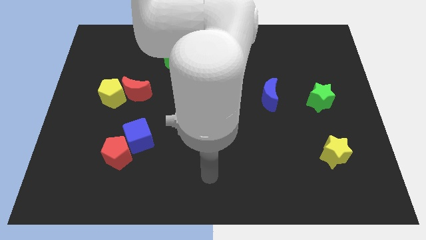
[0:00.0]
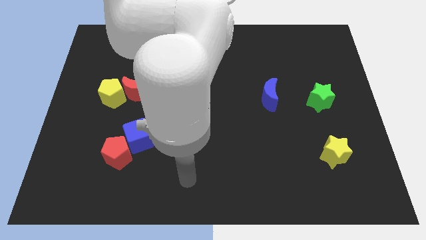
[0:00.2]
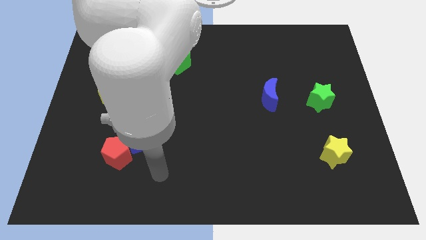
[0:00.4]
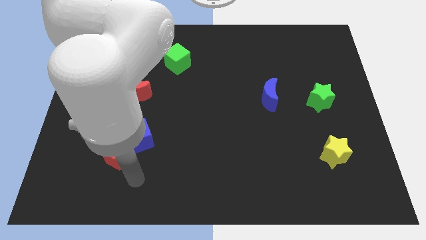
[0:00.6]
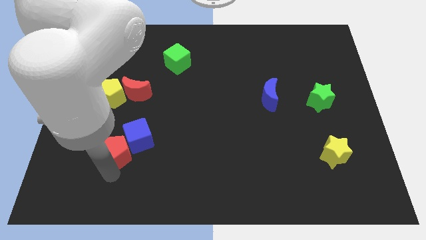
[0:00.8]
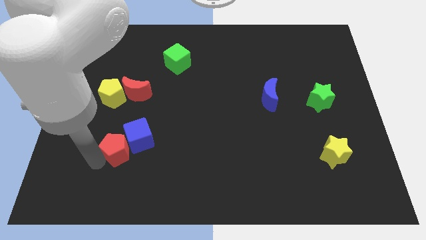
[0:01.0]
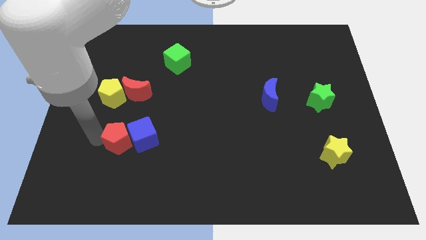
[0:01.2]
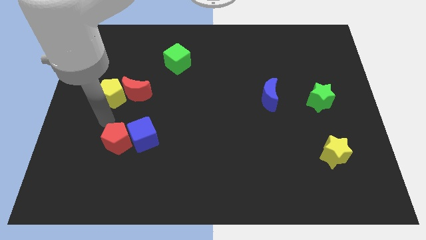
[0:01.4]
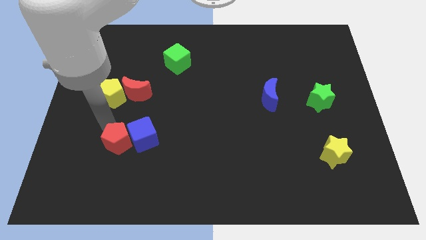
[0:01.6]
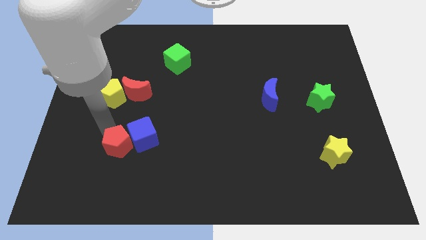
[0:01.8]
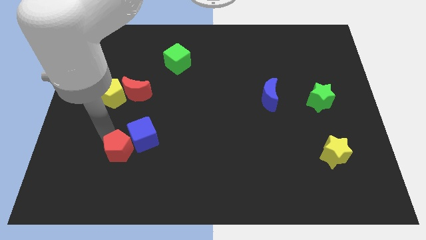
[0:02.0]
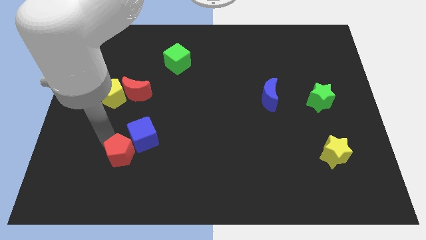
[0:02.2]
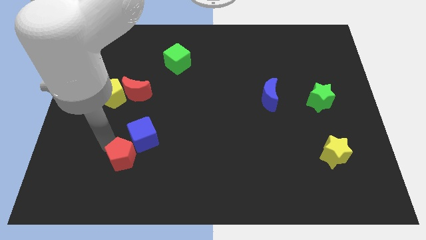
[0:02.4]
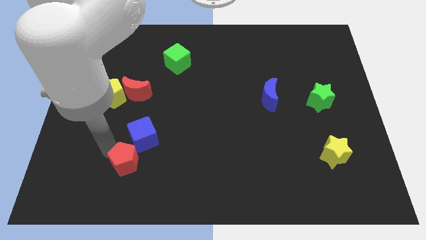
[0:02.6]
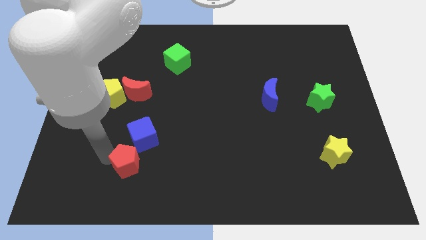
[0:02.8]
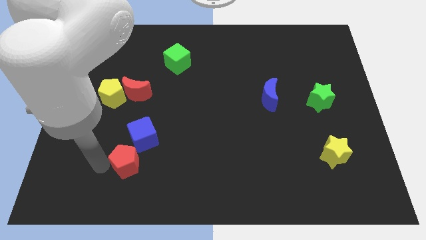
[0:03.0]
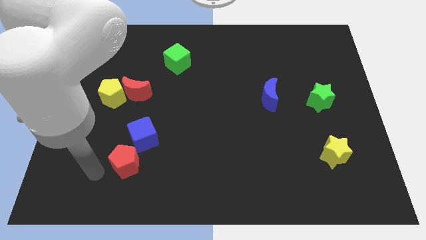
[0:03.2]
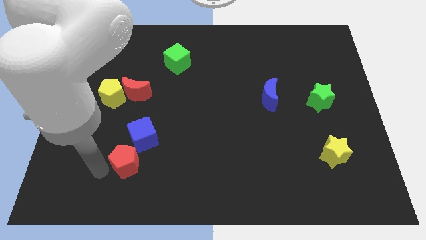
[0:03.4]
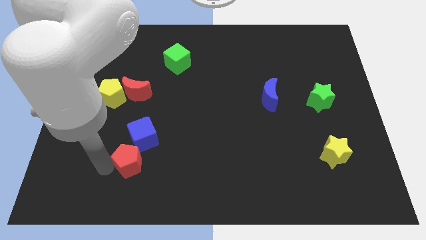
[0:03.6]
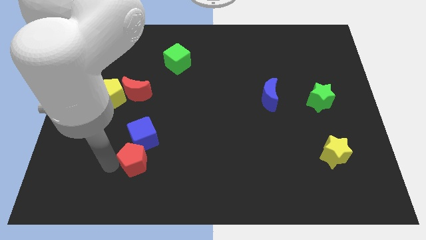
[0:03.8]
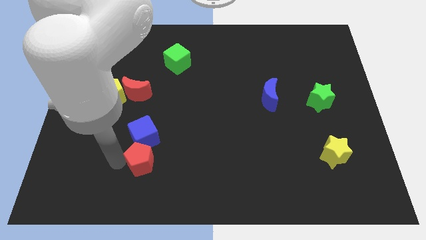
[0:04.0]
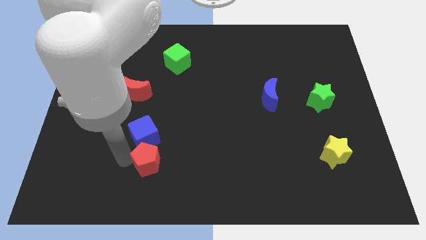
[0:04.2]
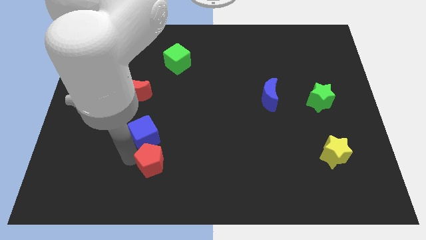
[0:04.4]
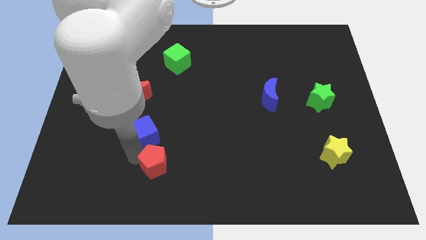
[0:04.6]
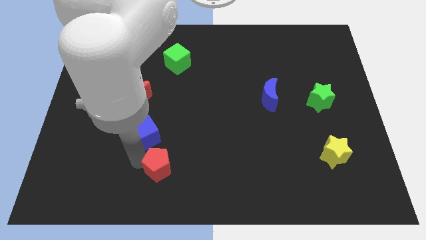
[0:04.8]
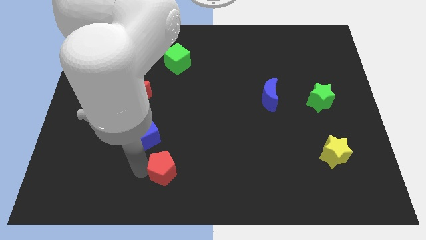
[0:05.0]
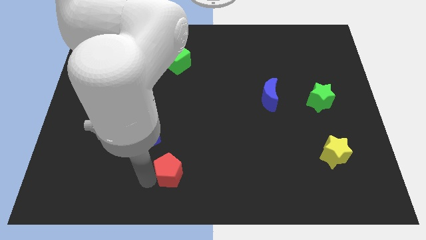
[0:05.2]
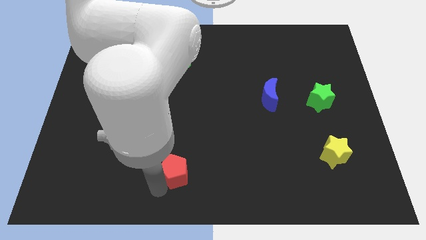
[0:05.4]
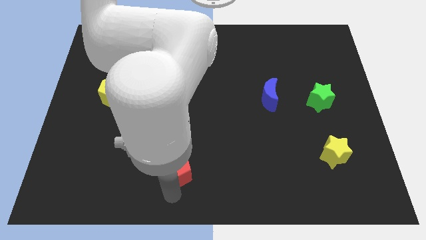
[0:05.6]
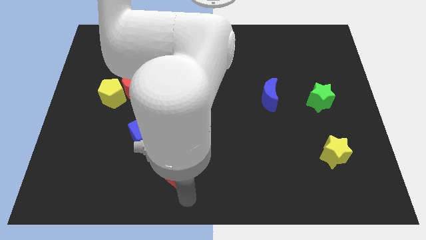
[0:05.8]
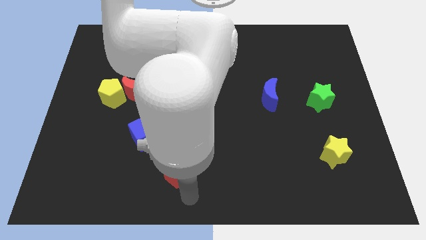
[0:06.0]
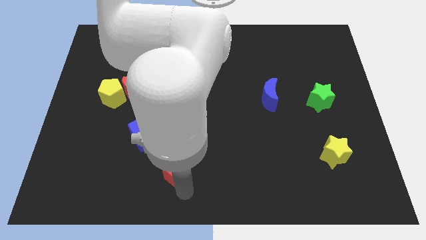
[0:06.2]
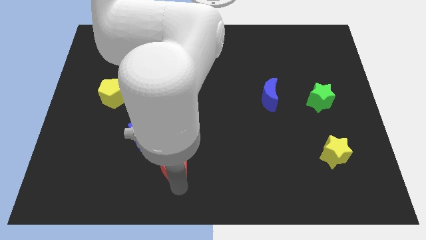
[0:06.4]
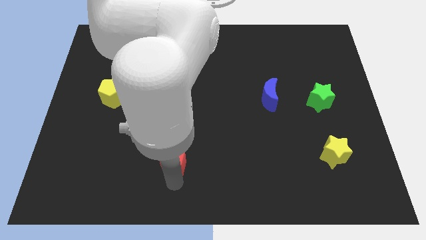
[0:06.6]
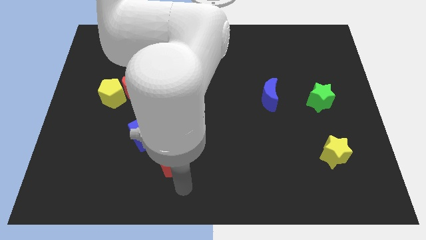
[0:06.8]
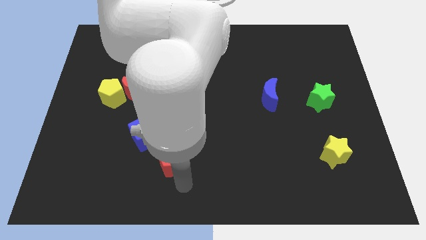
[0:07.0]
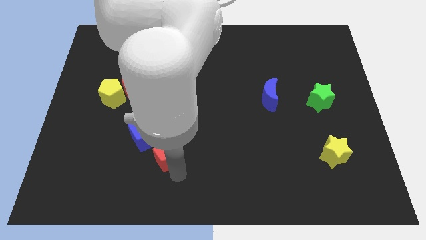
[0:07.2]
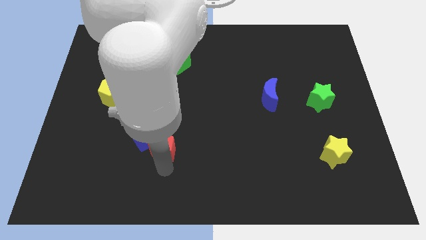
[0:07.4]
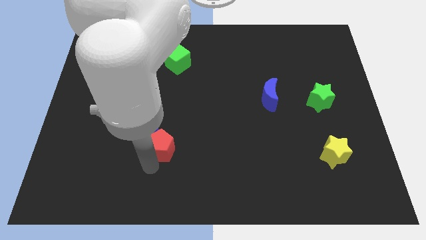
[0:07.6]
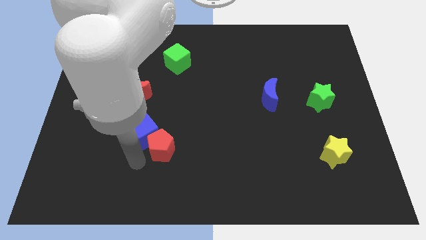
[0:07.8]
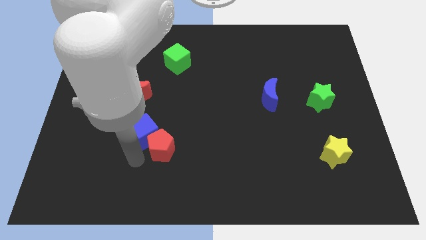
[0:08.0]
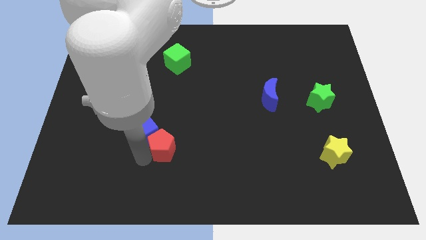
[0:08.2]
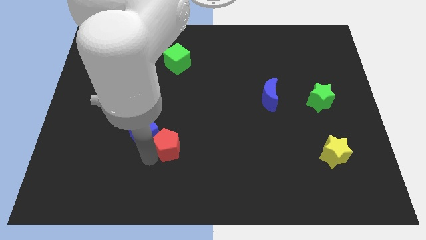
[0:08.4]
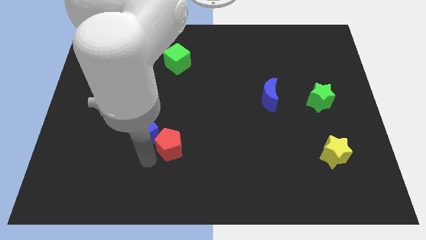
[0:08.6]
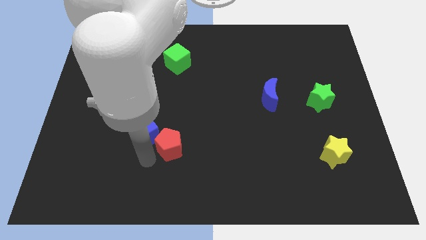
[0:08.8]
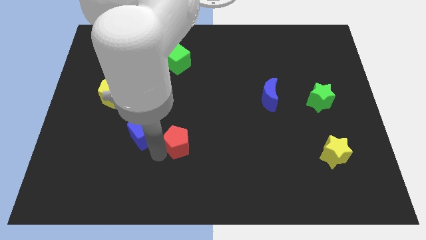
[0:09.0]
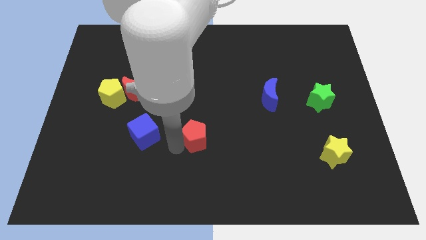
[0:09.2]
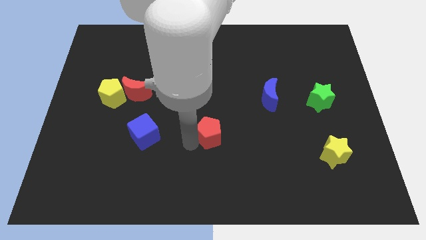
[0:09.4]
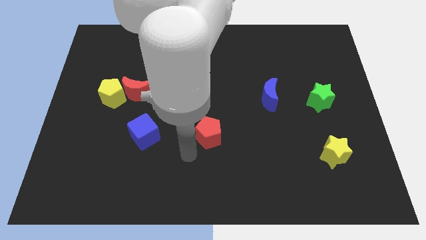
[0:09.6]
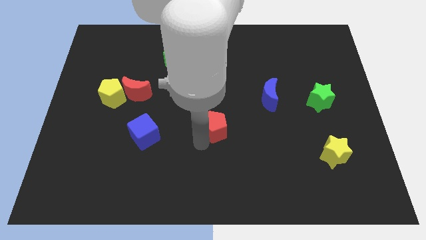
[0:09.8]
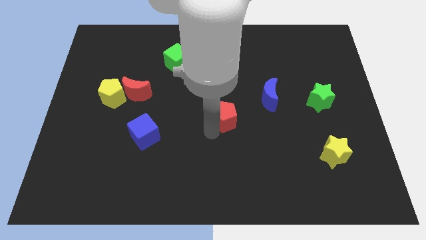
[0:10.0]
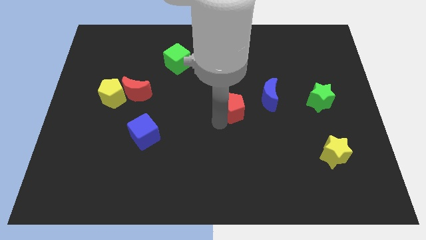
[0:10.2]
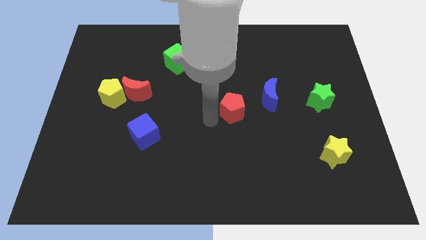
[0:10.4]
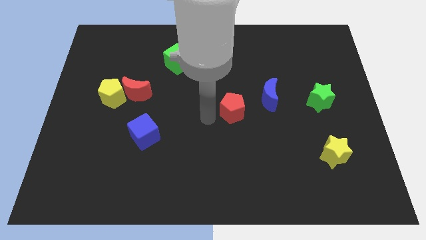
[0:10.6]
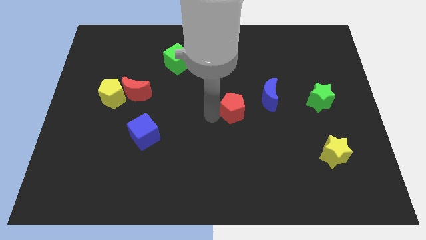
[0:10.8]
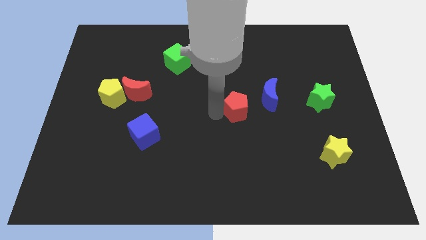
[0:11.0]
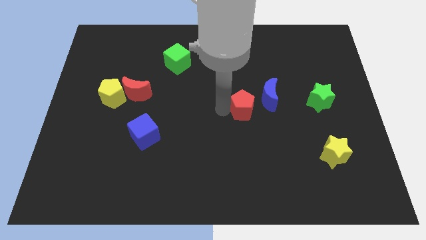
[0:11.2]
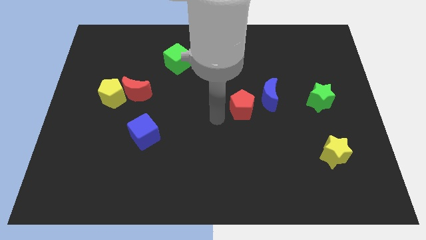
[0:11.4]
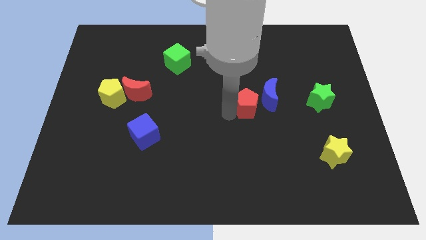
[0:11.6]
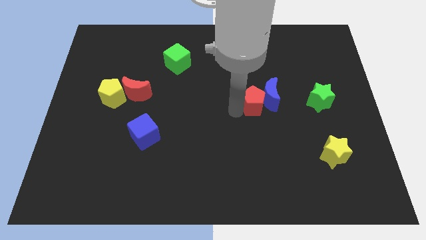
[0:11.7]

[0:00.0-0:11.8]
put the red pentagon towards the blue moon

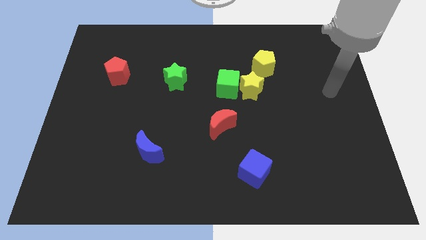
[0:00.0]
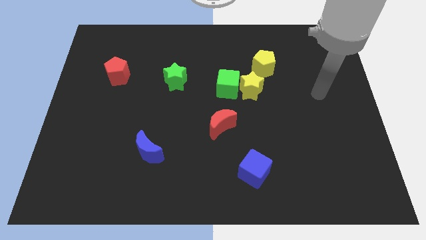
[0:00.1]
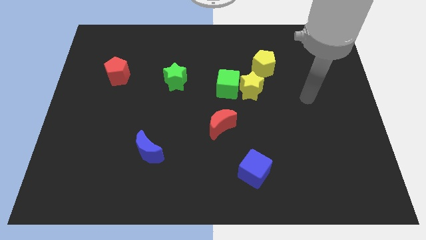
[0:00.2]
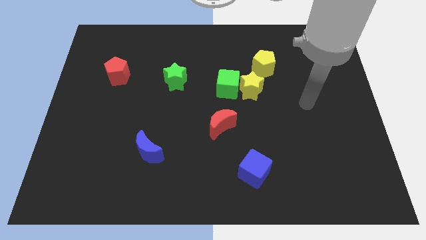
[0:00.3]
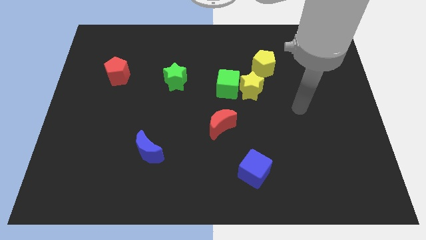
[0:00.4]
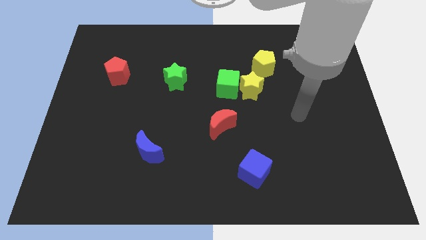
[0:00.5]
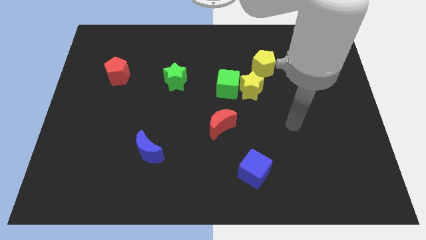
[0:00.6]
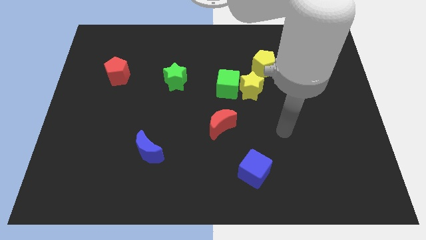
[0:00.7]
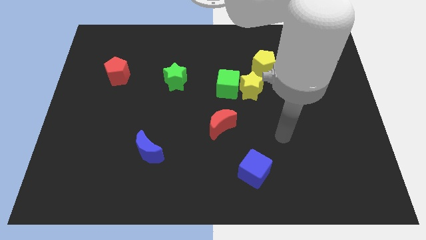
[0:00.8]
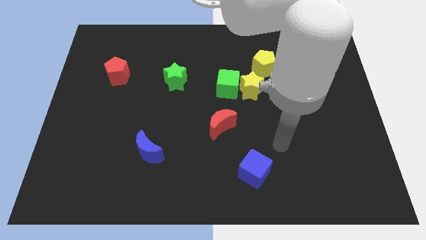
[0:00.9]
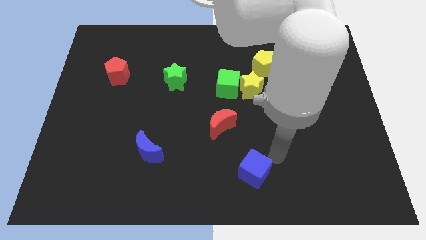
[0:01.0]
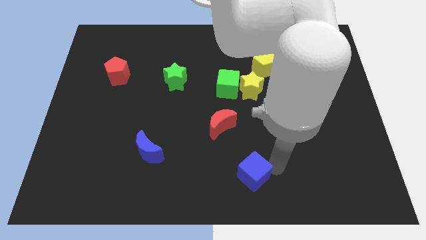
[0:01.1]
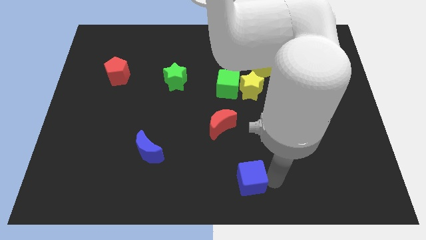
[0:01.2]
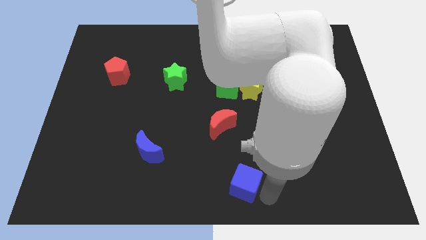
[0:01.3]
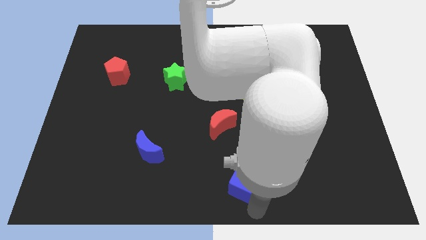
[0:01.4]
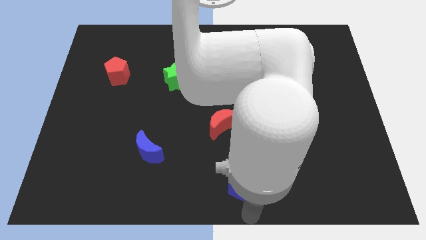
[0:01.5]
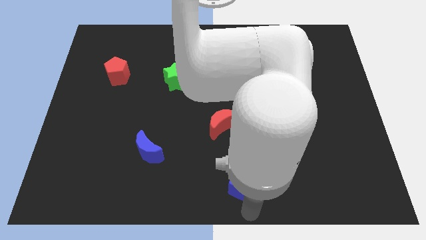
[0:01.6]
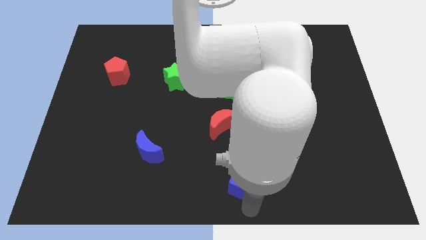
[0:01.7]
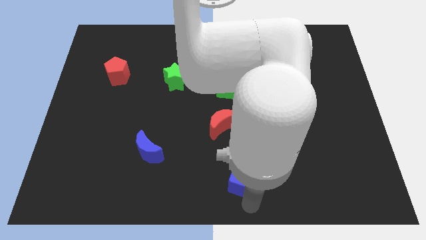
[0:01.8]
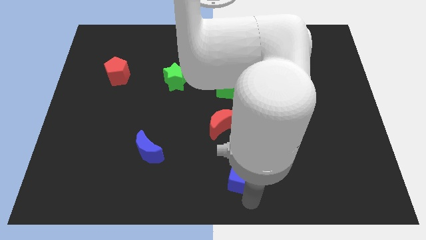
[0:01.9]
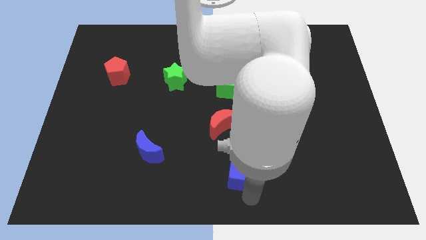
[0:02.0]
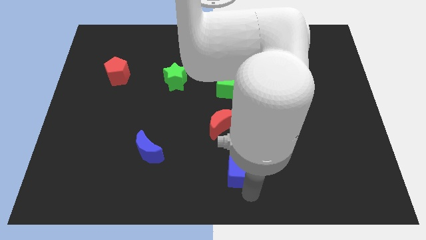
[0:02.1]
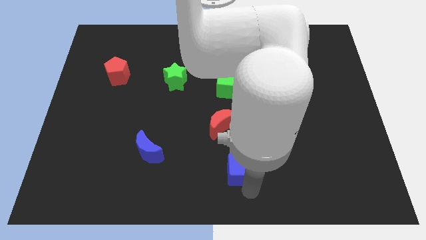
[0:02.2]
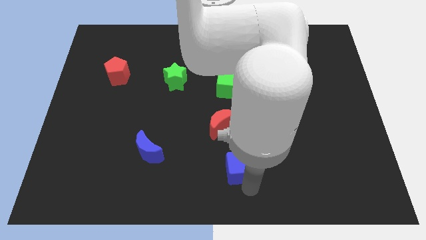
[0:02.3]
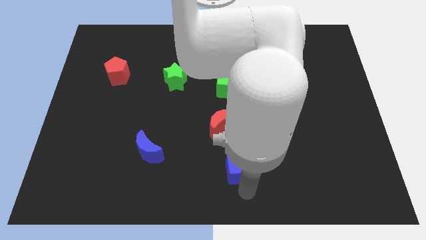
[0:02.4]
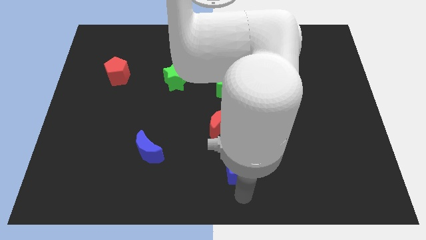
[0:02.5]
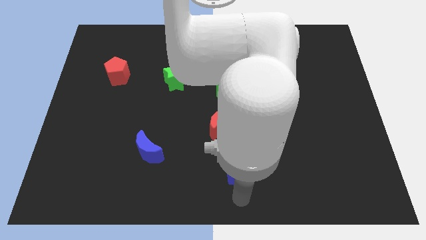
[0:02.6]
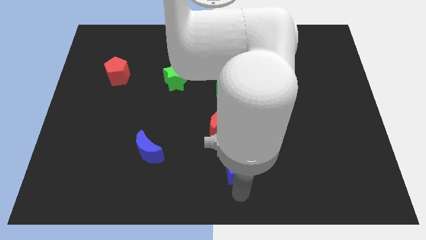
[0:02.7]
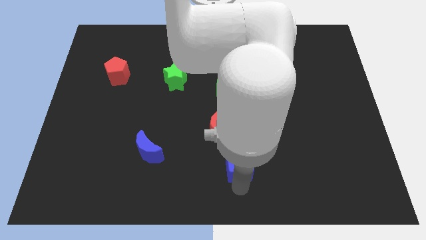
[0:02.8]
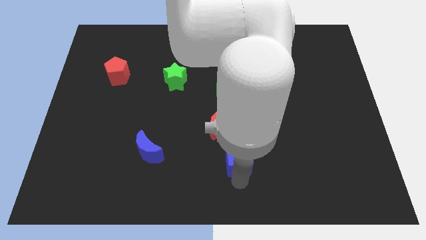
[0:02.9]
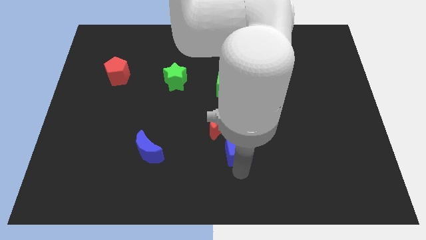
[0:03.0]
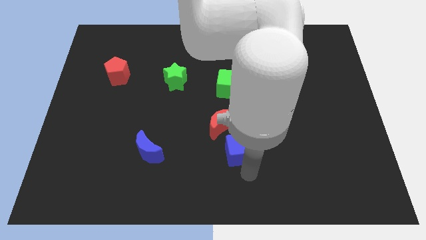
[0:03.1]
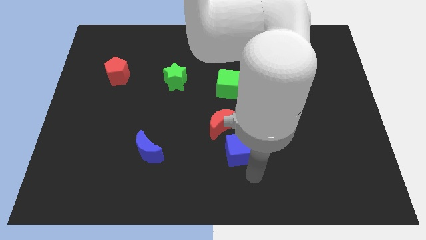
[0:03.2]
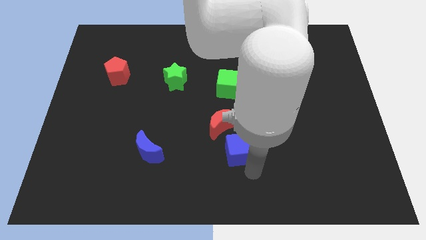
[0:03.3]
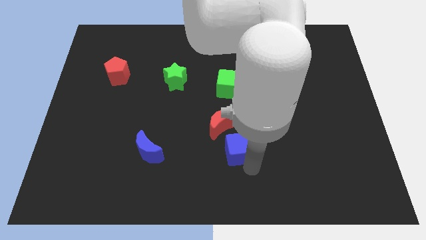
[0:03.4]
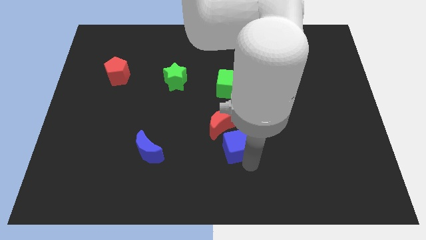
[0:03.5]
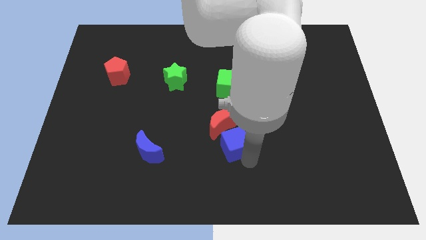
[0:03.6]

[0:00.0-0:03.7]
slide the blue cube close to the red moon
